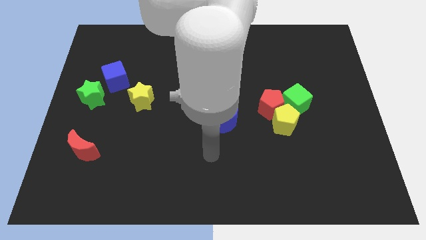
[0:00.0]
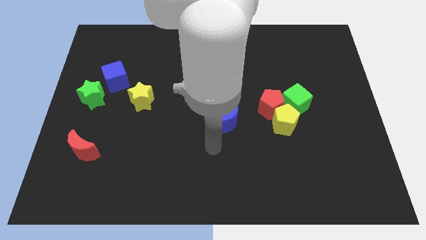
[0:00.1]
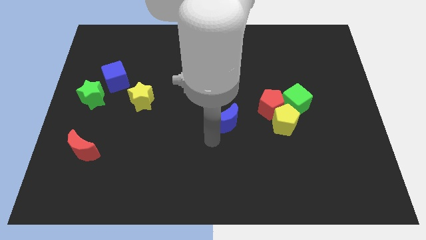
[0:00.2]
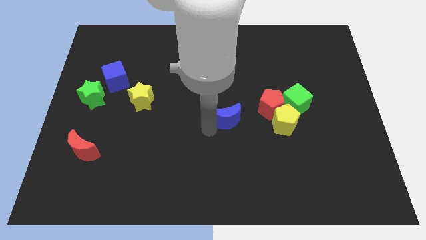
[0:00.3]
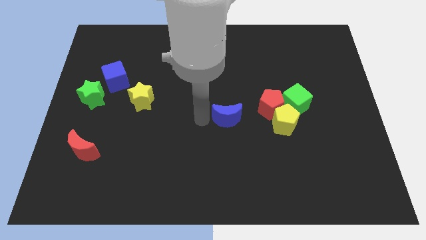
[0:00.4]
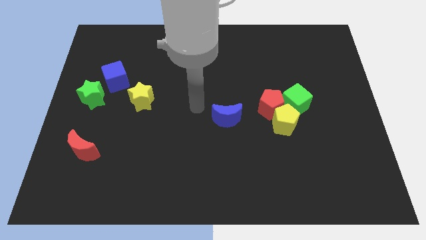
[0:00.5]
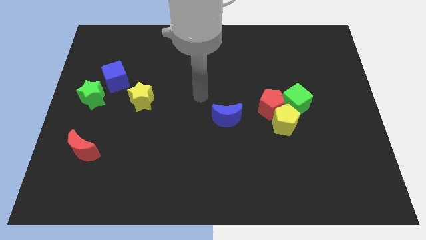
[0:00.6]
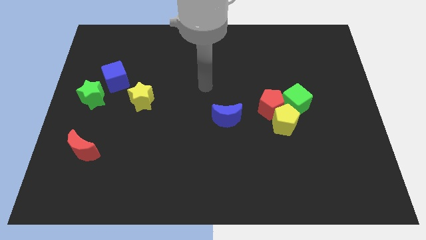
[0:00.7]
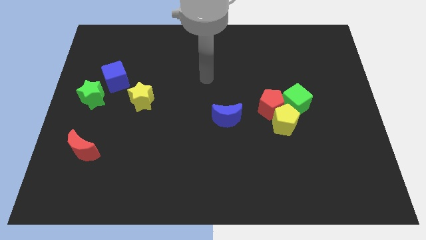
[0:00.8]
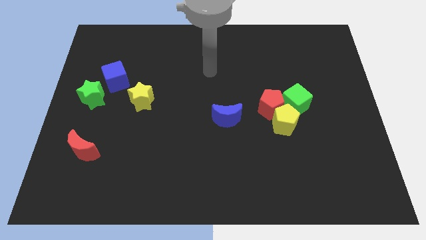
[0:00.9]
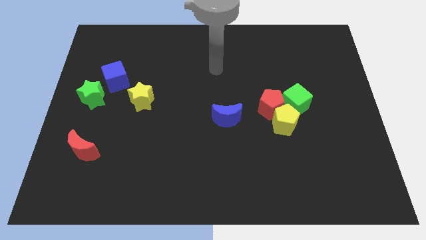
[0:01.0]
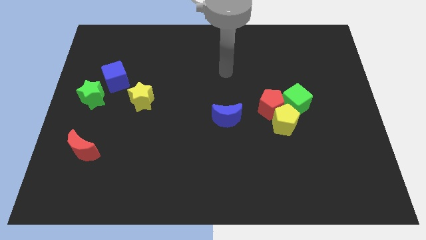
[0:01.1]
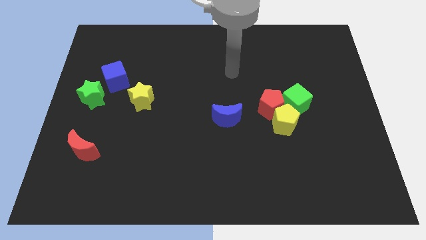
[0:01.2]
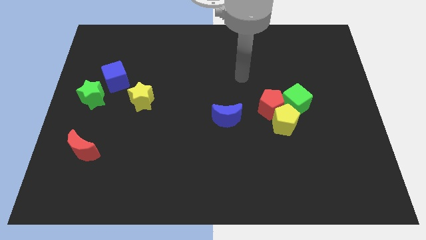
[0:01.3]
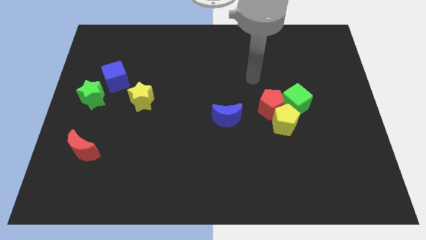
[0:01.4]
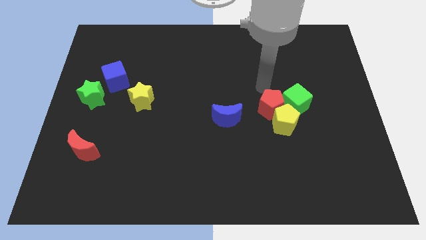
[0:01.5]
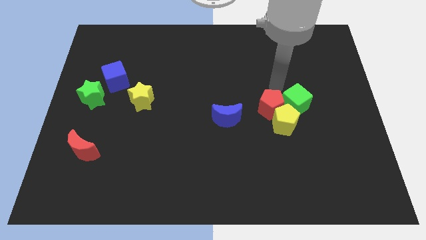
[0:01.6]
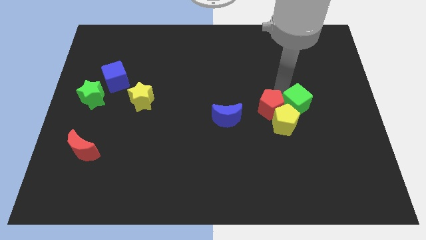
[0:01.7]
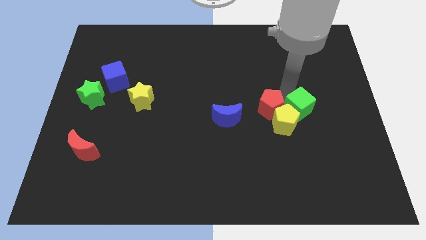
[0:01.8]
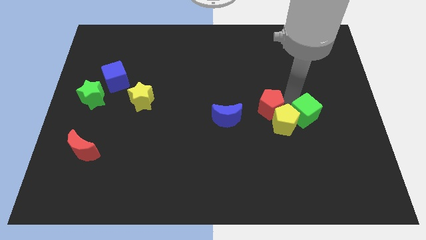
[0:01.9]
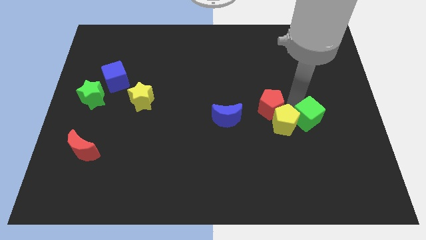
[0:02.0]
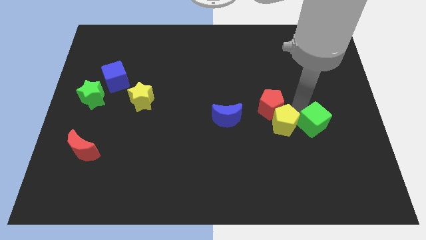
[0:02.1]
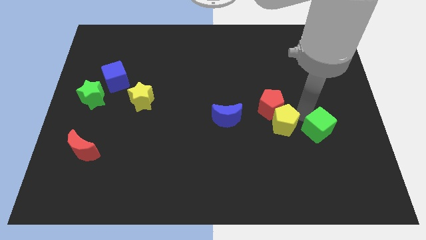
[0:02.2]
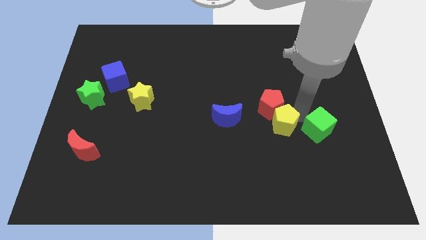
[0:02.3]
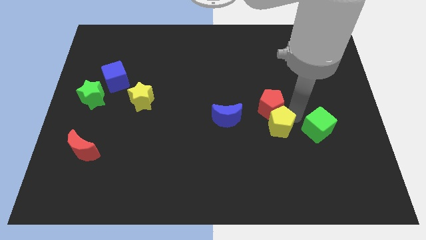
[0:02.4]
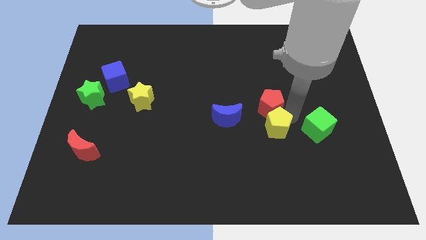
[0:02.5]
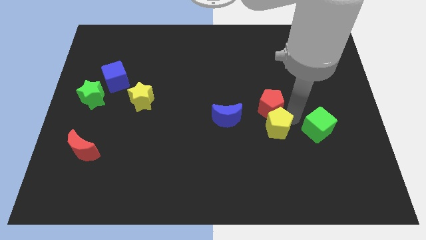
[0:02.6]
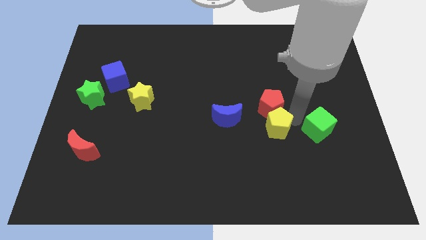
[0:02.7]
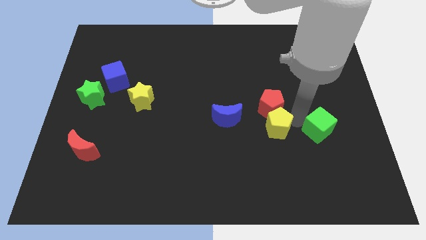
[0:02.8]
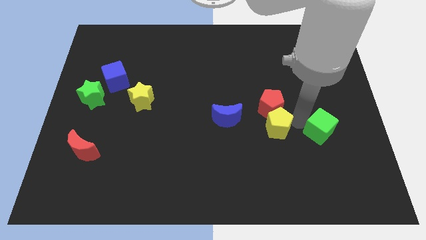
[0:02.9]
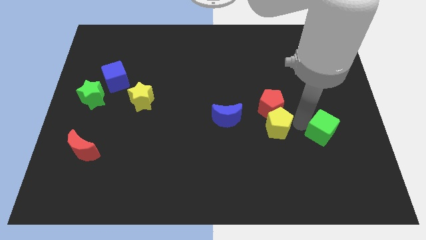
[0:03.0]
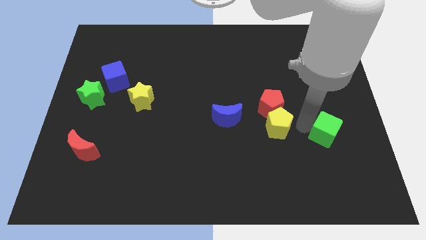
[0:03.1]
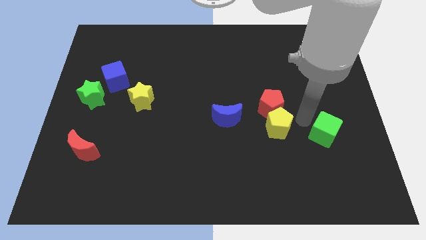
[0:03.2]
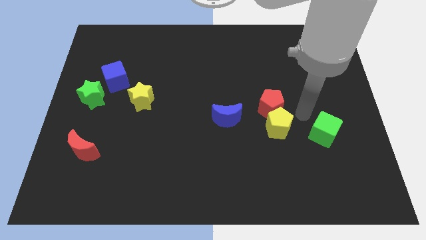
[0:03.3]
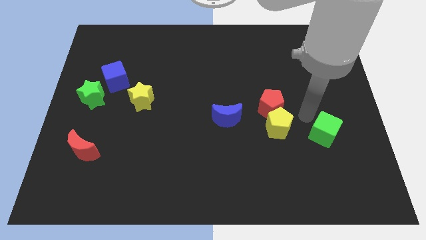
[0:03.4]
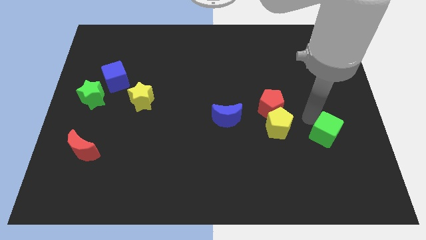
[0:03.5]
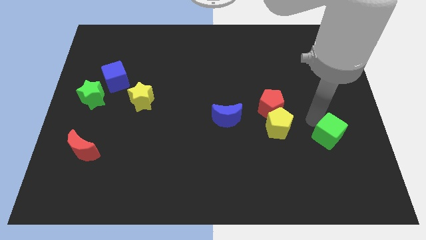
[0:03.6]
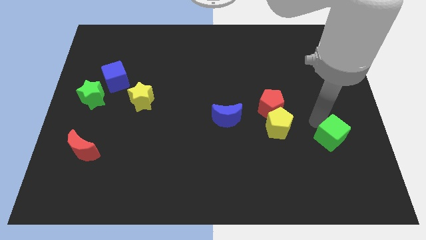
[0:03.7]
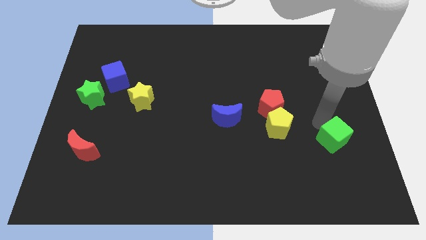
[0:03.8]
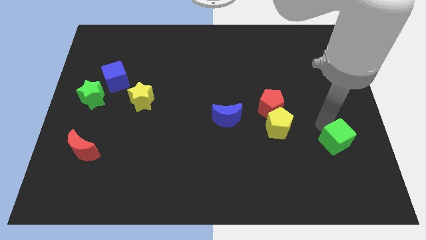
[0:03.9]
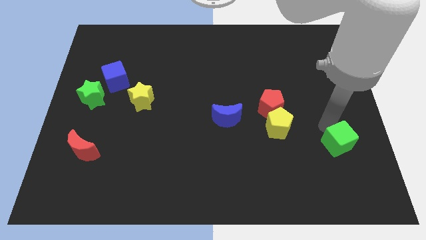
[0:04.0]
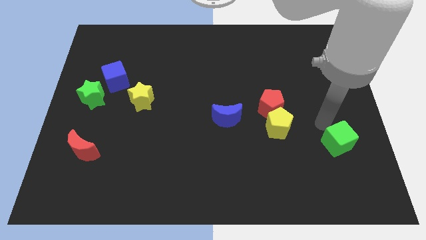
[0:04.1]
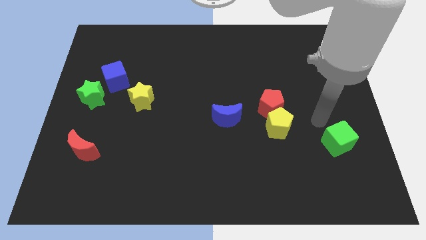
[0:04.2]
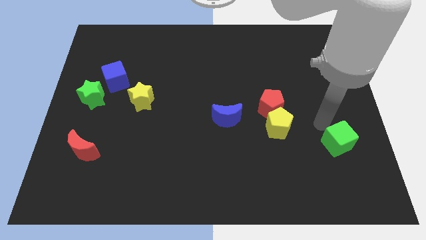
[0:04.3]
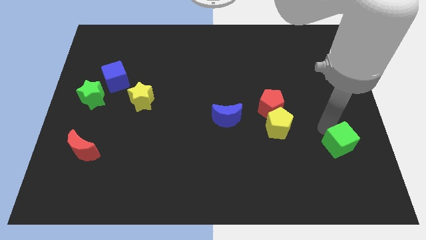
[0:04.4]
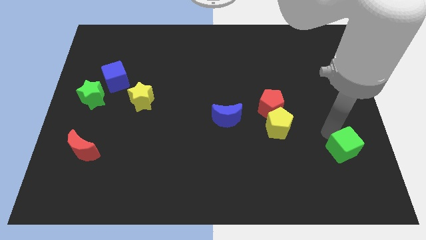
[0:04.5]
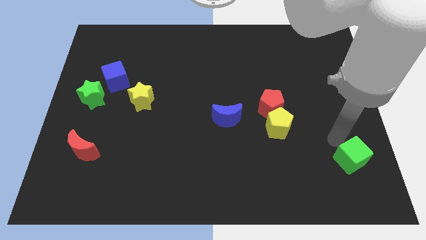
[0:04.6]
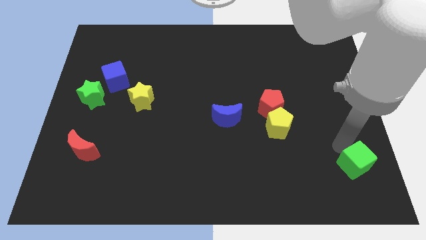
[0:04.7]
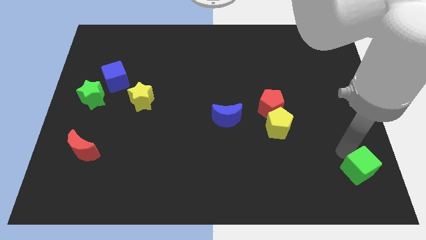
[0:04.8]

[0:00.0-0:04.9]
slide the green cube to the bottom right

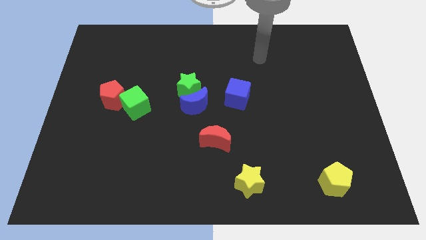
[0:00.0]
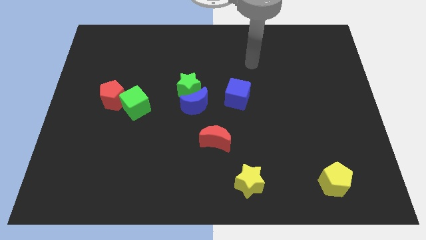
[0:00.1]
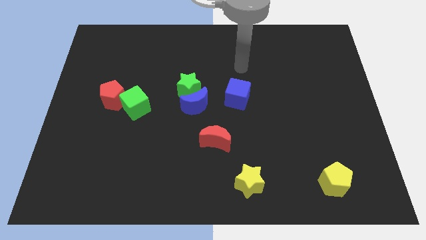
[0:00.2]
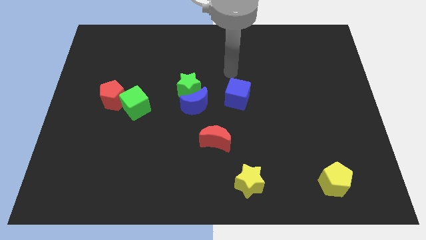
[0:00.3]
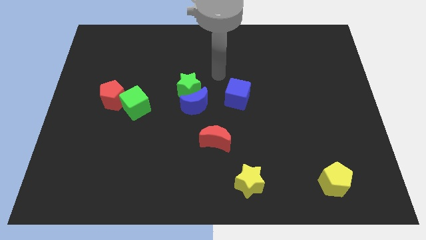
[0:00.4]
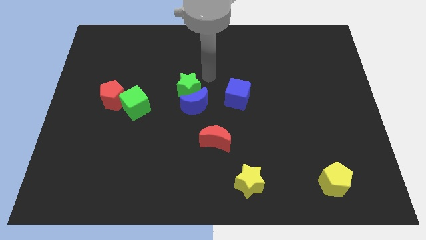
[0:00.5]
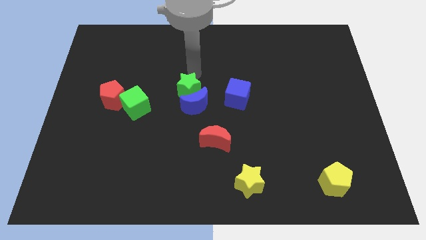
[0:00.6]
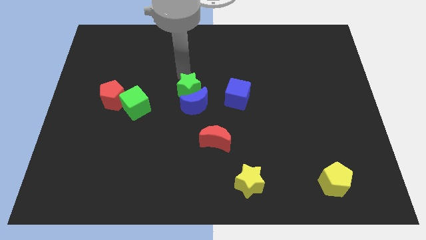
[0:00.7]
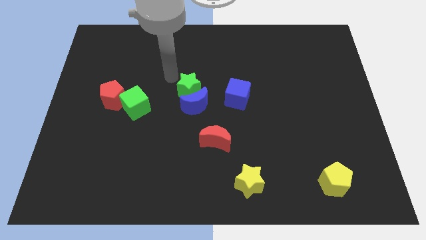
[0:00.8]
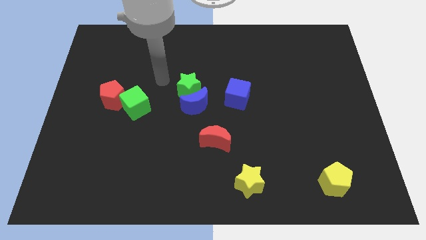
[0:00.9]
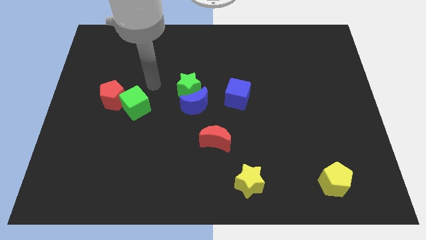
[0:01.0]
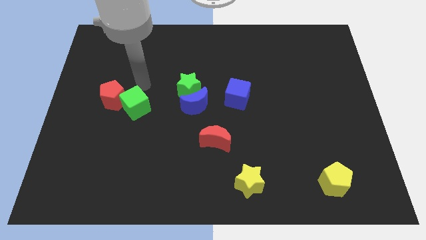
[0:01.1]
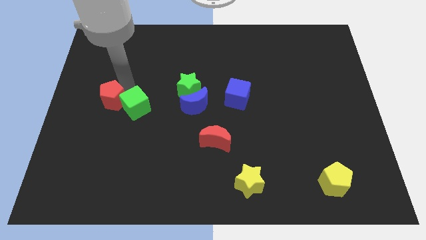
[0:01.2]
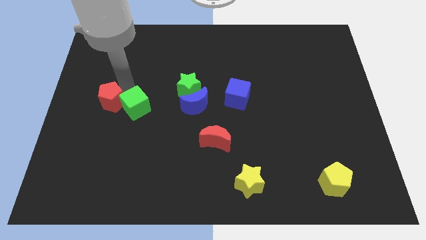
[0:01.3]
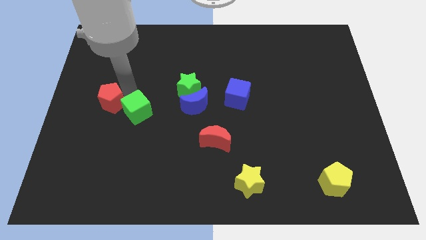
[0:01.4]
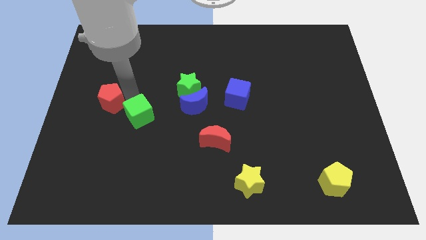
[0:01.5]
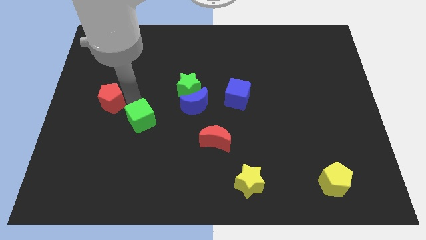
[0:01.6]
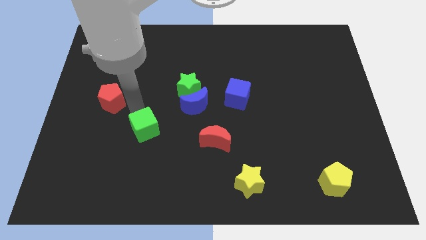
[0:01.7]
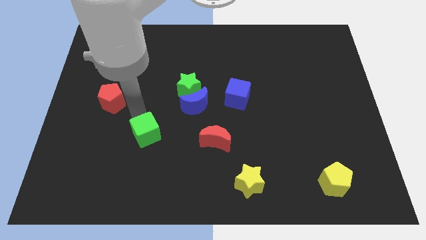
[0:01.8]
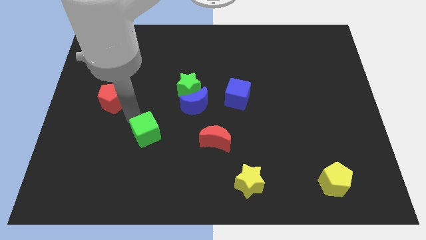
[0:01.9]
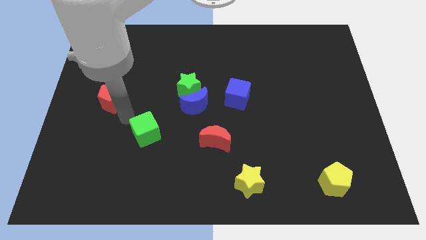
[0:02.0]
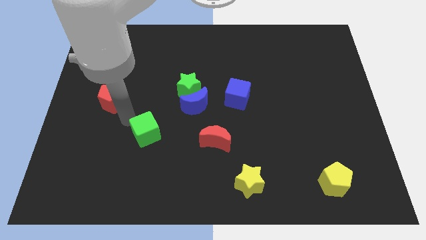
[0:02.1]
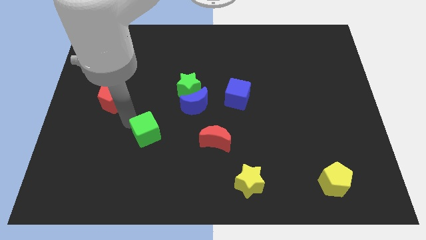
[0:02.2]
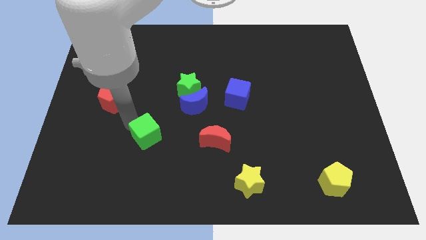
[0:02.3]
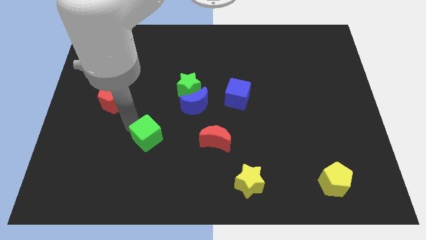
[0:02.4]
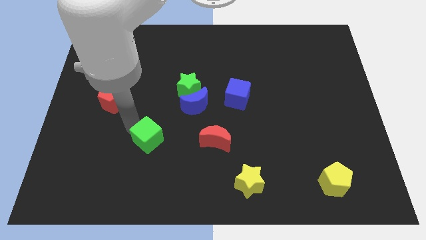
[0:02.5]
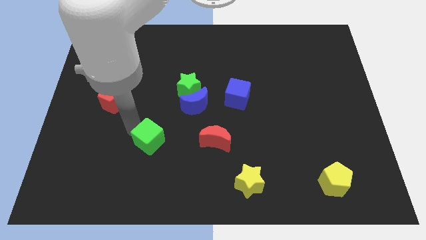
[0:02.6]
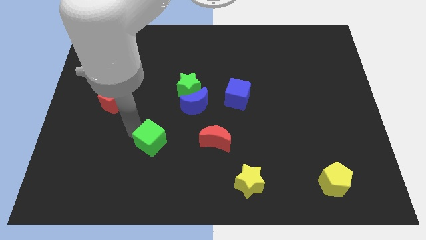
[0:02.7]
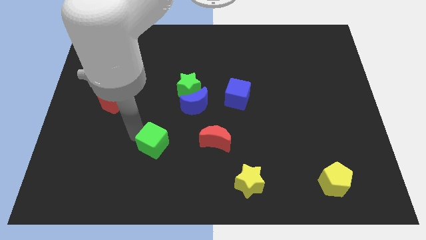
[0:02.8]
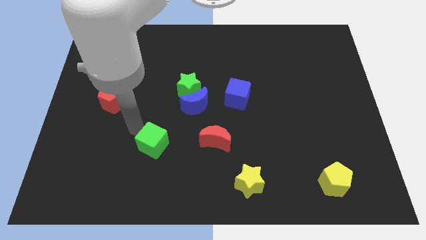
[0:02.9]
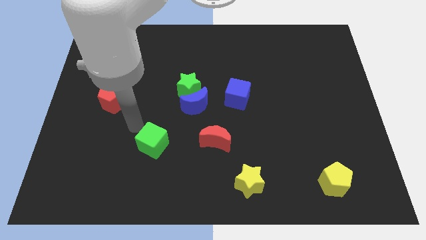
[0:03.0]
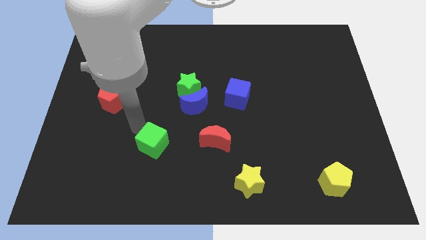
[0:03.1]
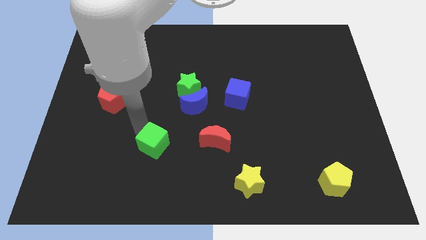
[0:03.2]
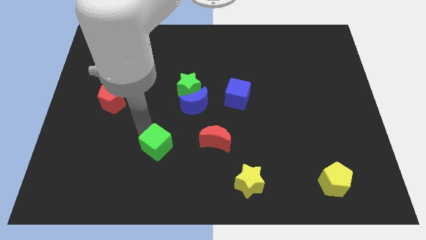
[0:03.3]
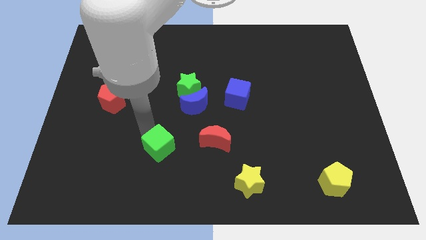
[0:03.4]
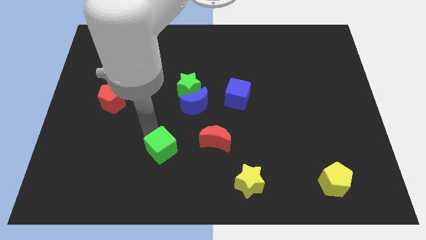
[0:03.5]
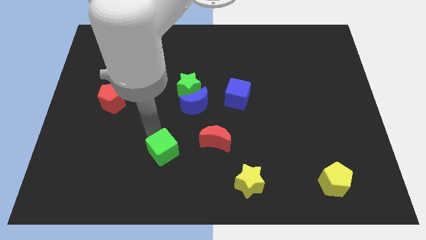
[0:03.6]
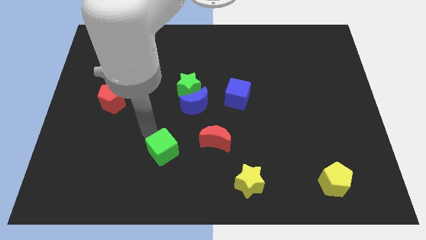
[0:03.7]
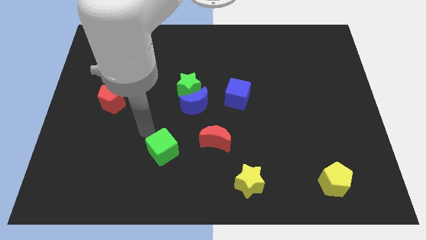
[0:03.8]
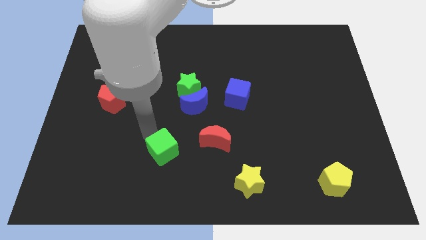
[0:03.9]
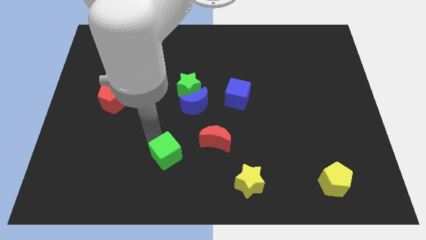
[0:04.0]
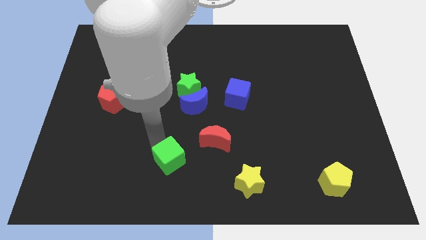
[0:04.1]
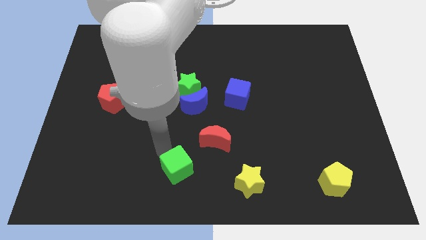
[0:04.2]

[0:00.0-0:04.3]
slide the green cube to the bottom
